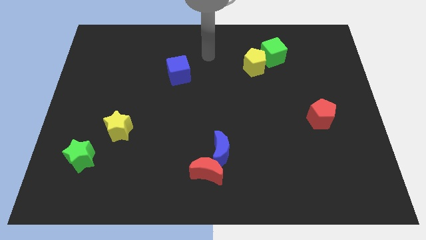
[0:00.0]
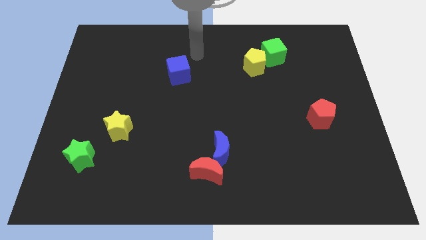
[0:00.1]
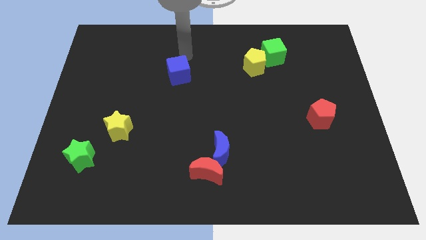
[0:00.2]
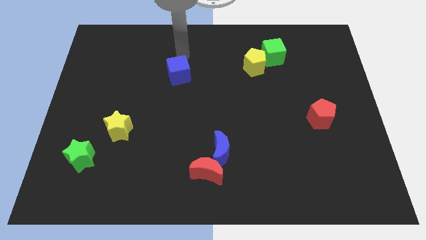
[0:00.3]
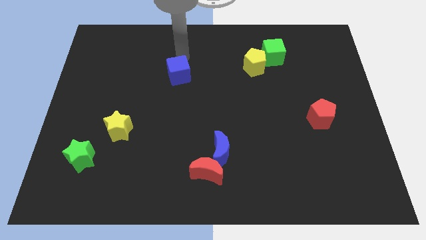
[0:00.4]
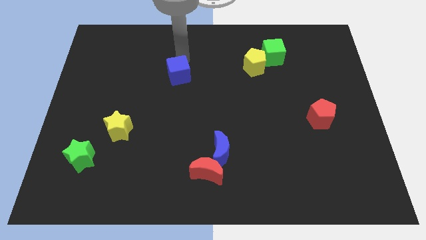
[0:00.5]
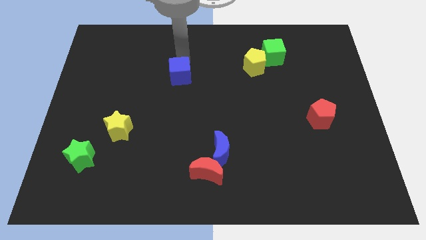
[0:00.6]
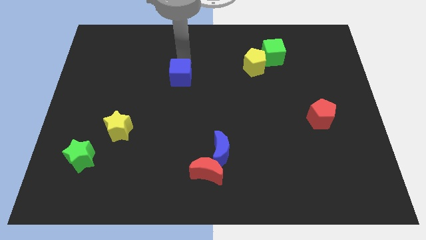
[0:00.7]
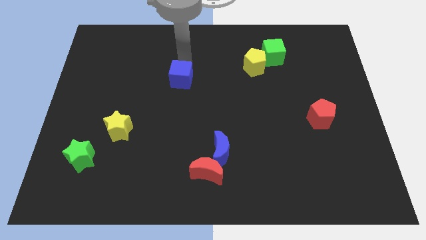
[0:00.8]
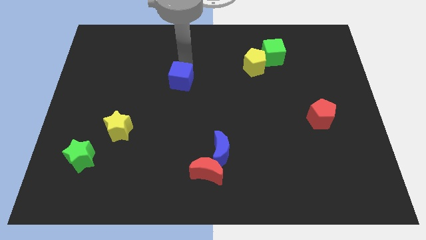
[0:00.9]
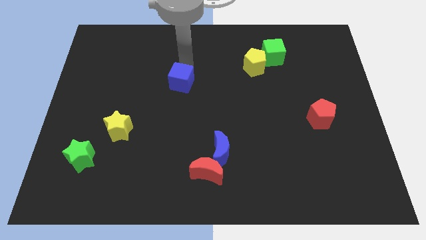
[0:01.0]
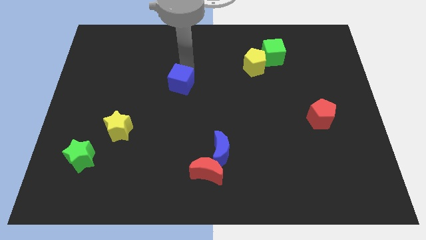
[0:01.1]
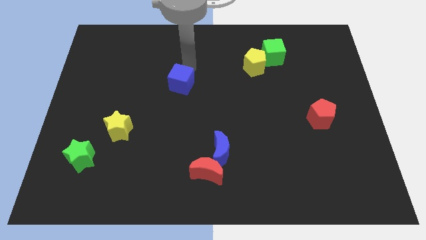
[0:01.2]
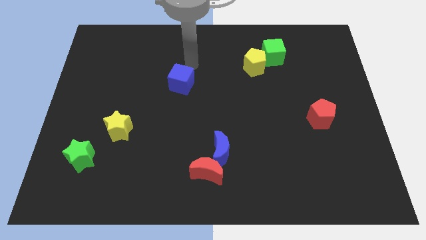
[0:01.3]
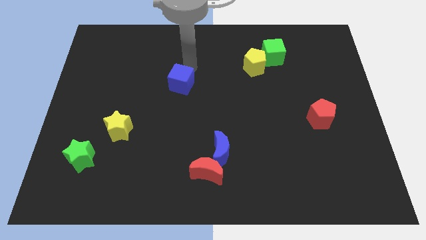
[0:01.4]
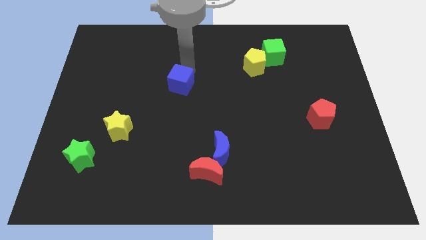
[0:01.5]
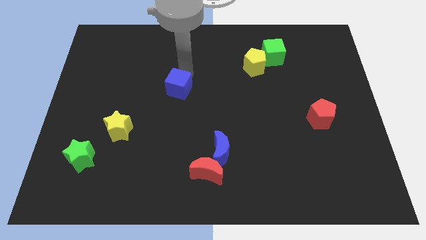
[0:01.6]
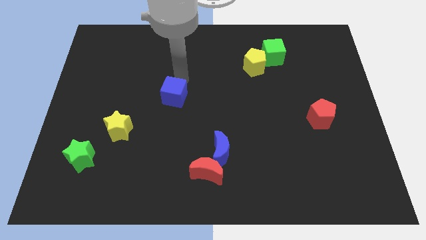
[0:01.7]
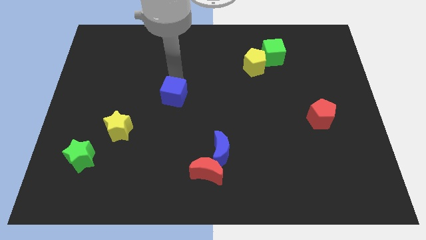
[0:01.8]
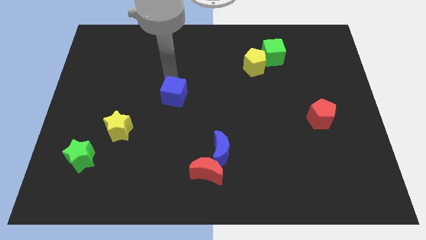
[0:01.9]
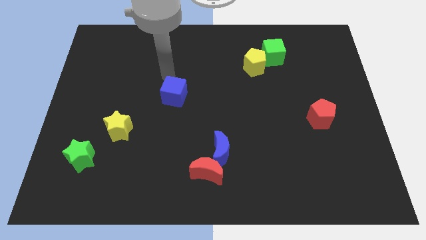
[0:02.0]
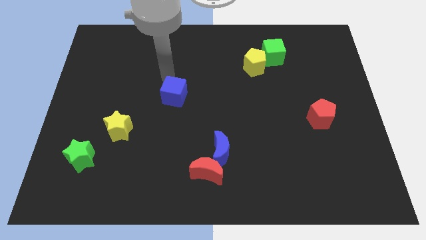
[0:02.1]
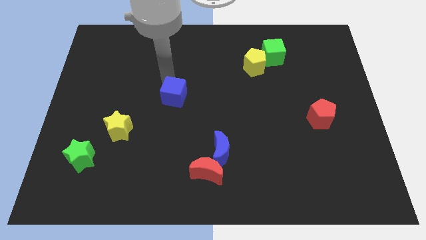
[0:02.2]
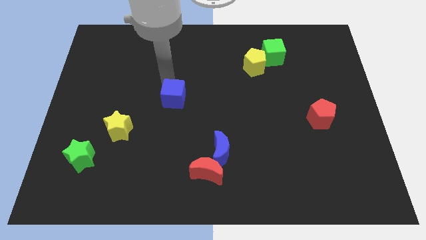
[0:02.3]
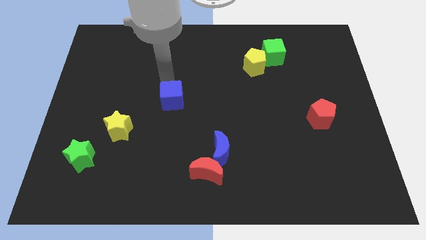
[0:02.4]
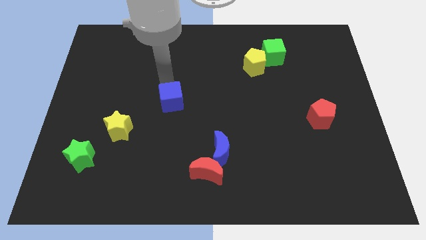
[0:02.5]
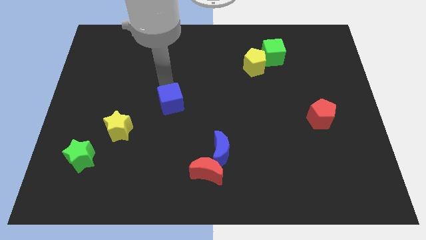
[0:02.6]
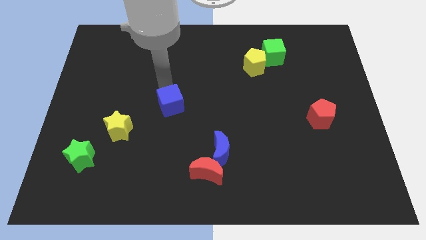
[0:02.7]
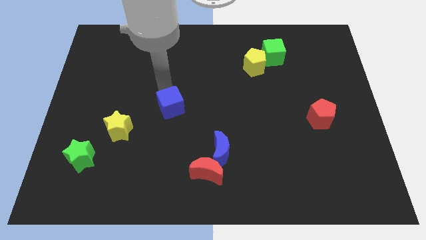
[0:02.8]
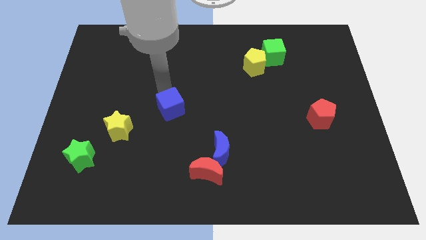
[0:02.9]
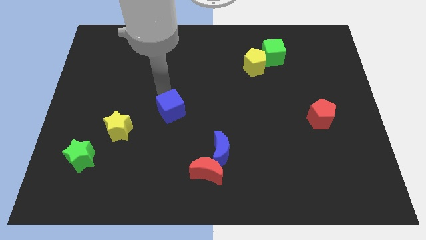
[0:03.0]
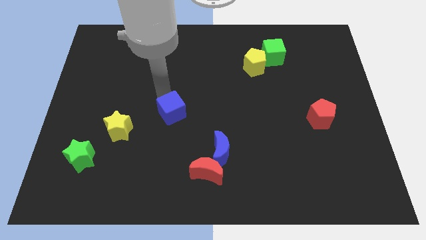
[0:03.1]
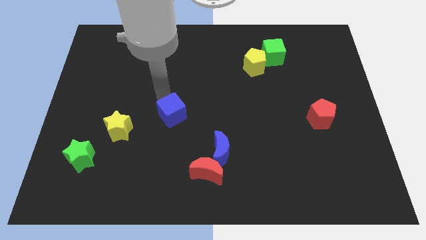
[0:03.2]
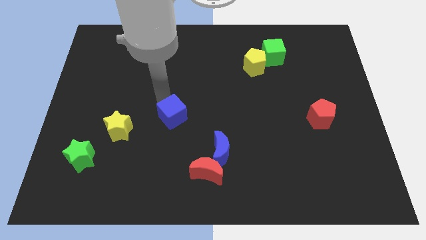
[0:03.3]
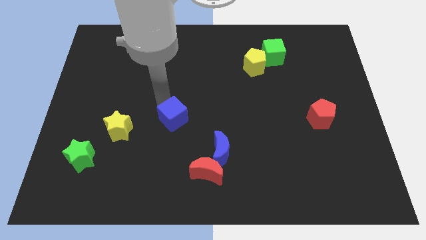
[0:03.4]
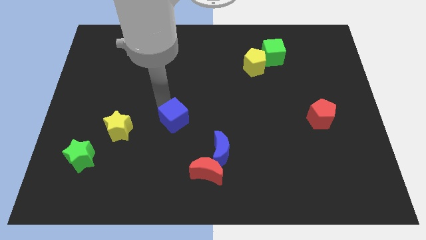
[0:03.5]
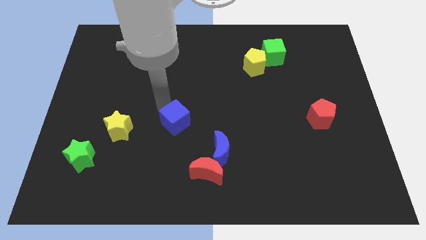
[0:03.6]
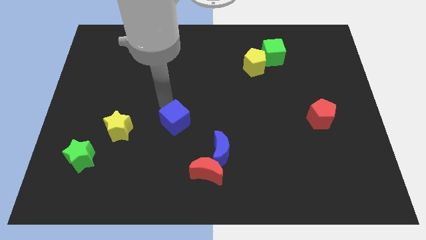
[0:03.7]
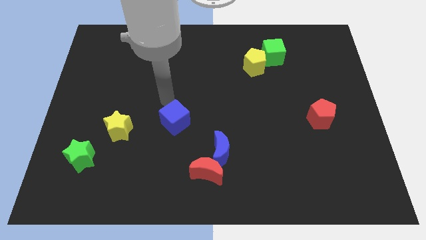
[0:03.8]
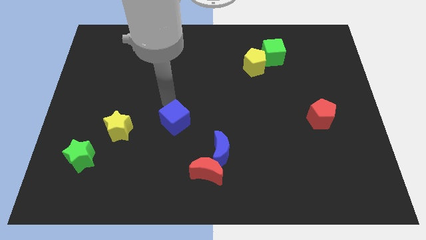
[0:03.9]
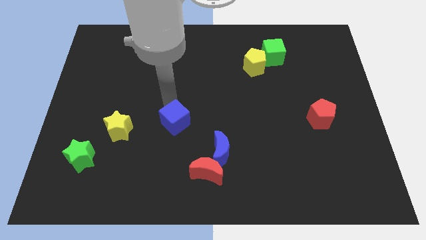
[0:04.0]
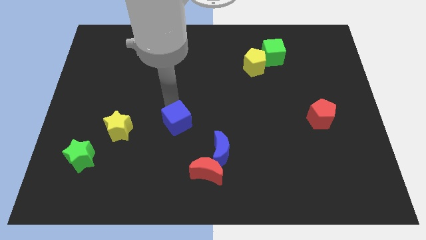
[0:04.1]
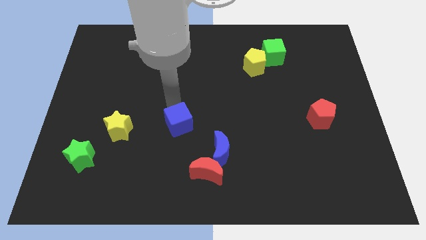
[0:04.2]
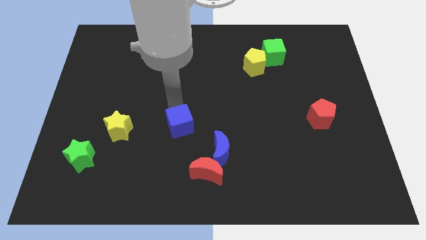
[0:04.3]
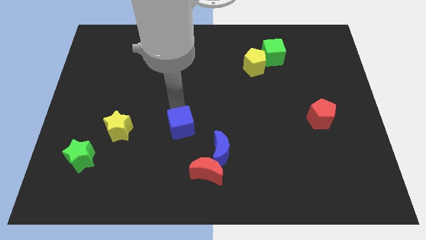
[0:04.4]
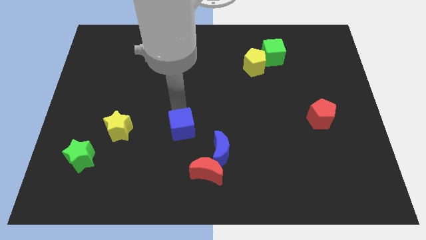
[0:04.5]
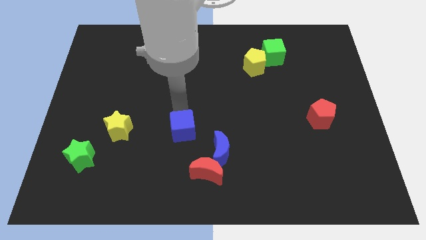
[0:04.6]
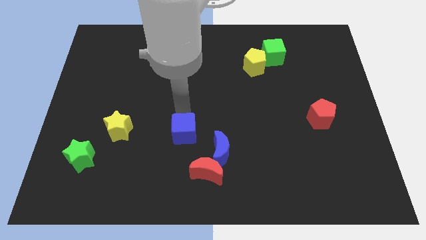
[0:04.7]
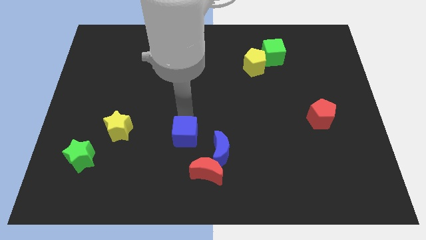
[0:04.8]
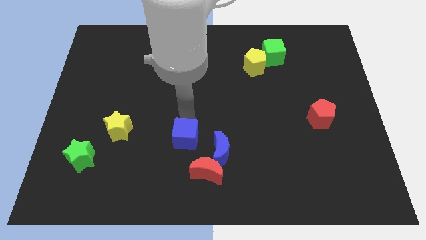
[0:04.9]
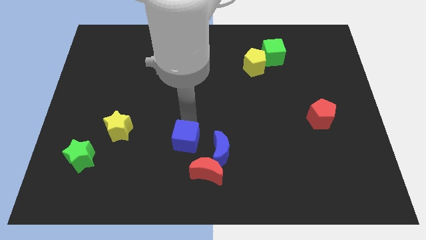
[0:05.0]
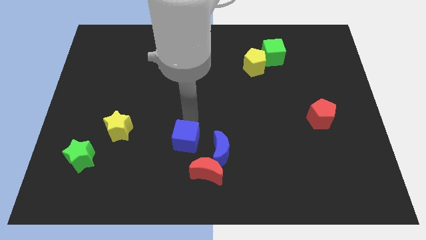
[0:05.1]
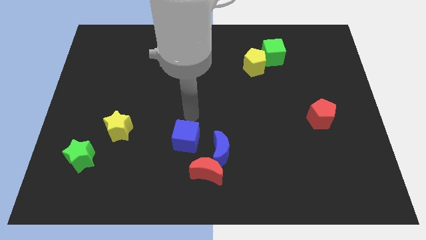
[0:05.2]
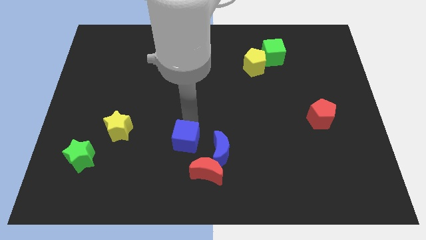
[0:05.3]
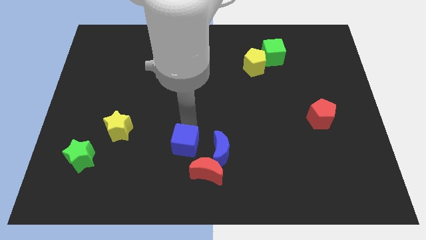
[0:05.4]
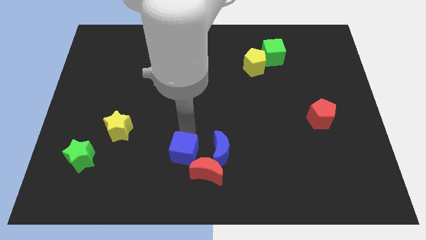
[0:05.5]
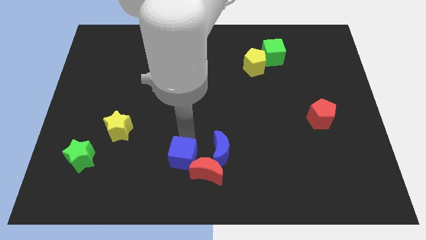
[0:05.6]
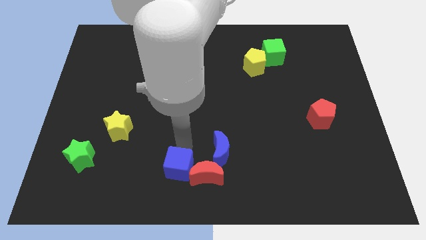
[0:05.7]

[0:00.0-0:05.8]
move the blue cube to the bottom

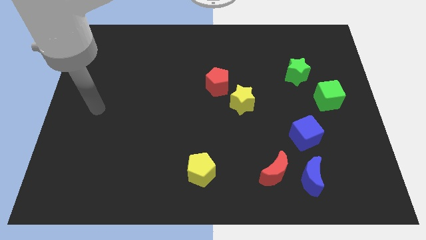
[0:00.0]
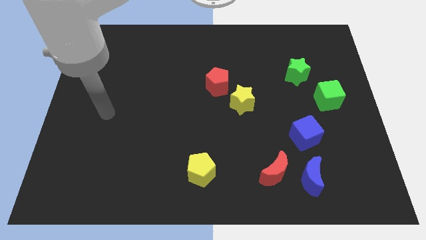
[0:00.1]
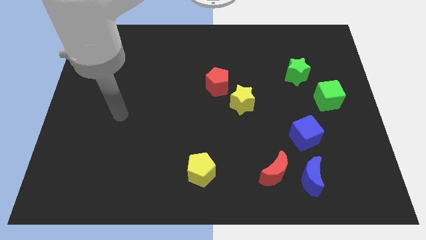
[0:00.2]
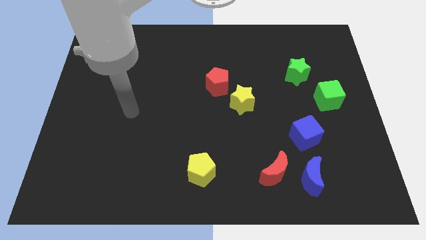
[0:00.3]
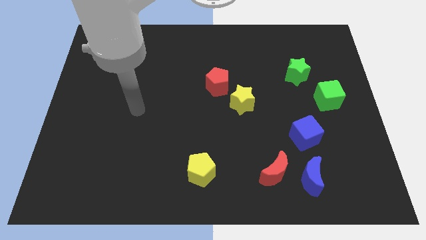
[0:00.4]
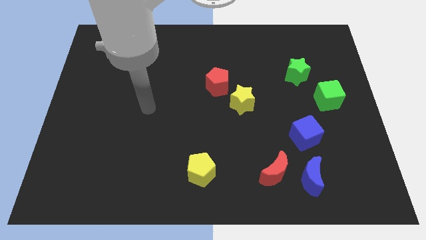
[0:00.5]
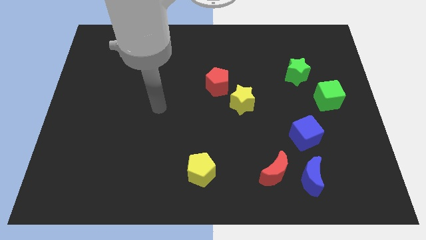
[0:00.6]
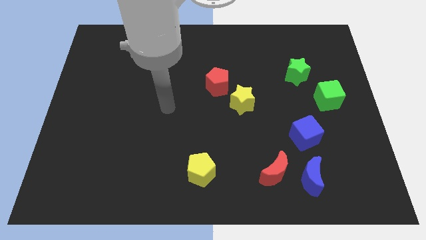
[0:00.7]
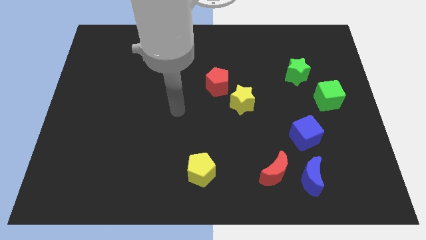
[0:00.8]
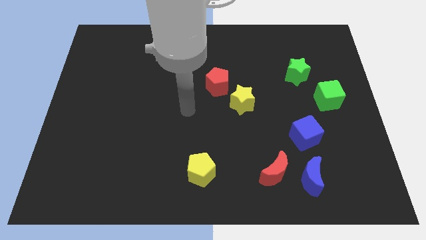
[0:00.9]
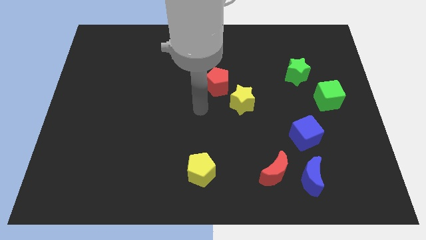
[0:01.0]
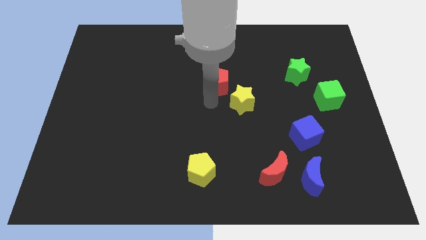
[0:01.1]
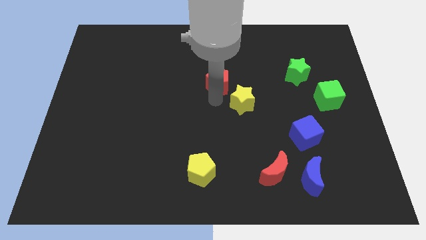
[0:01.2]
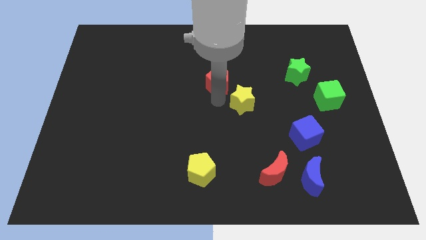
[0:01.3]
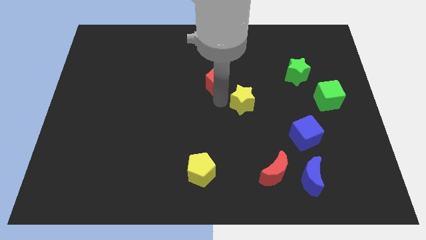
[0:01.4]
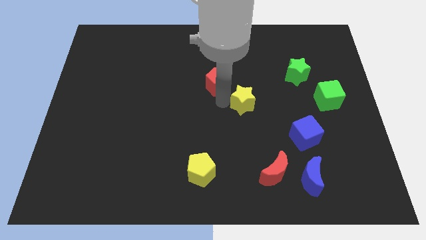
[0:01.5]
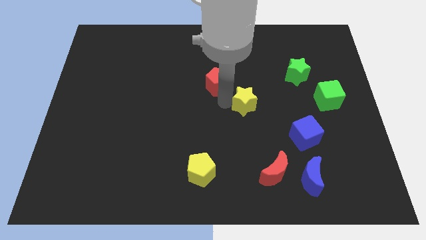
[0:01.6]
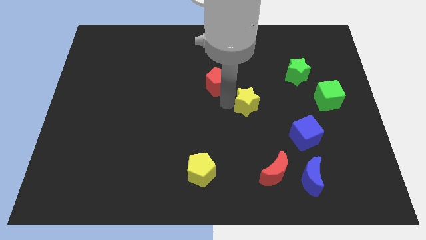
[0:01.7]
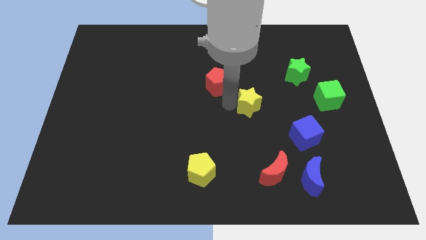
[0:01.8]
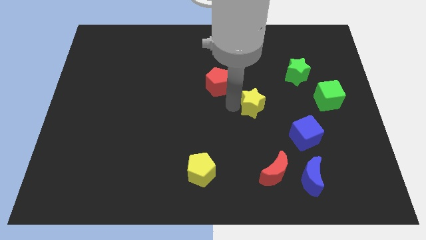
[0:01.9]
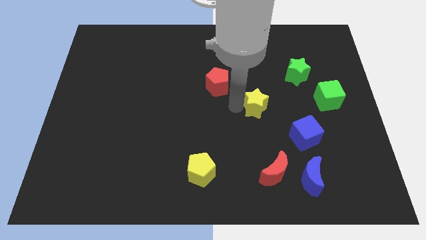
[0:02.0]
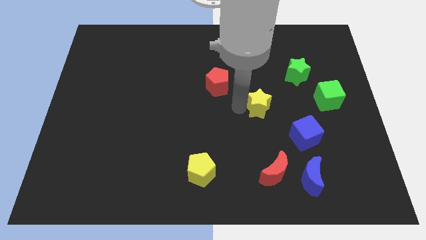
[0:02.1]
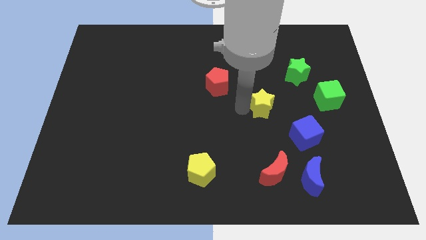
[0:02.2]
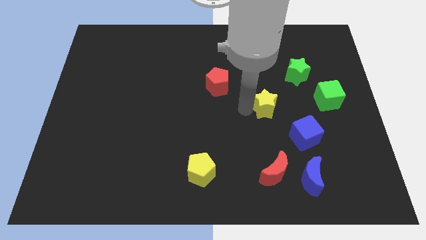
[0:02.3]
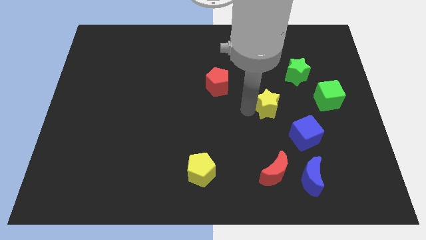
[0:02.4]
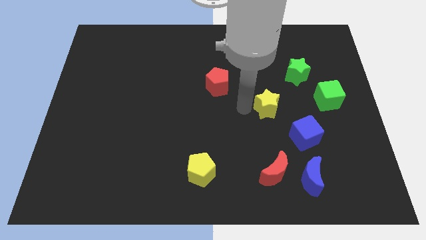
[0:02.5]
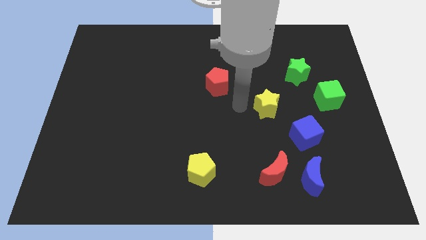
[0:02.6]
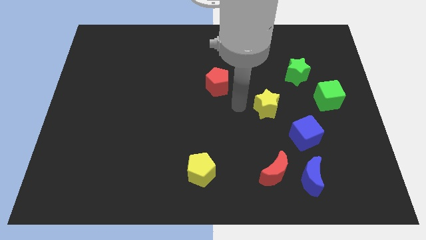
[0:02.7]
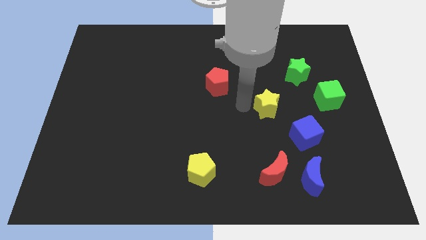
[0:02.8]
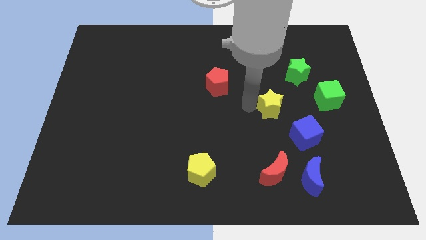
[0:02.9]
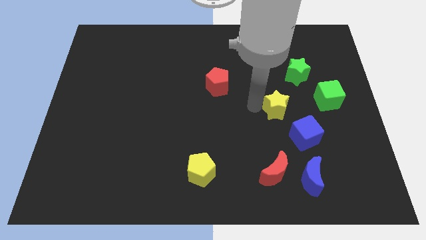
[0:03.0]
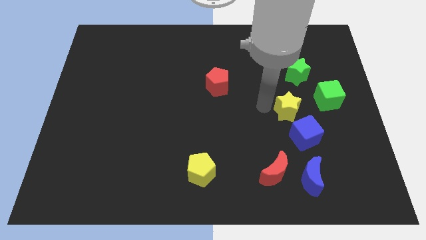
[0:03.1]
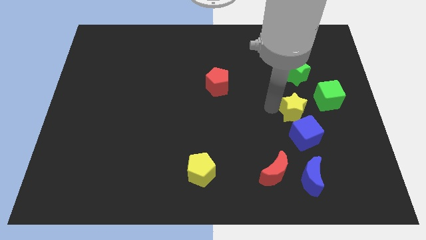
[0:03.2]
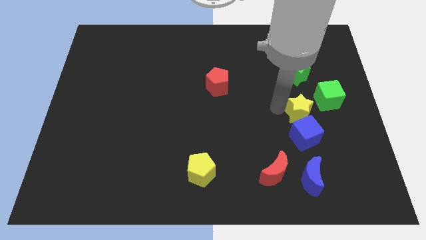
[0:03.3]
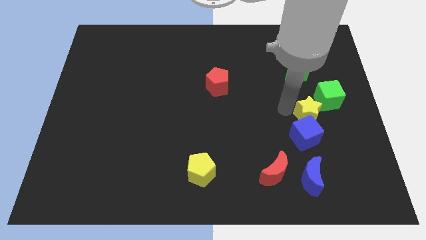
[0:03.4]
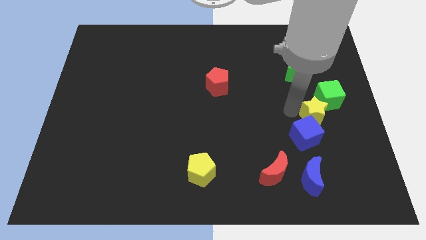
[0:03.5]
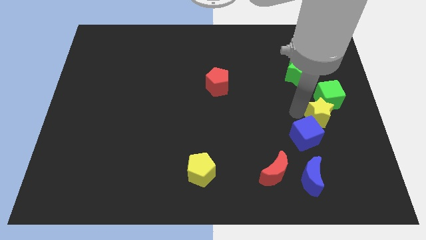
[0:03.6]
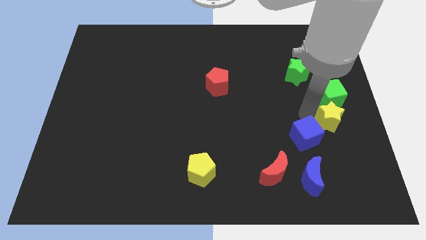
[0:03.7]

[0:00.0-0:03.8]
put the yellow star to the right side of the board
